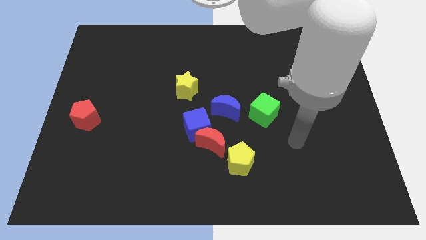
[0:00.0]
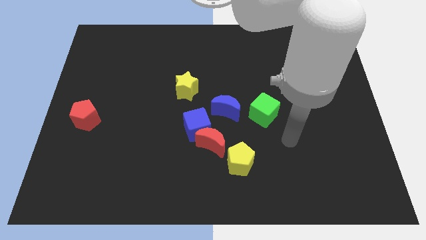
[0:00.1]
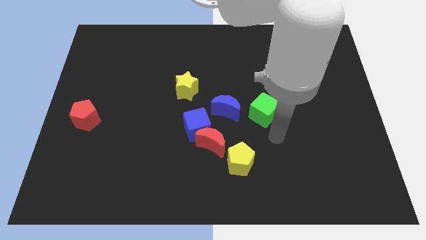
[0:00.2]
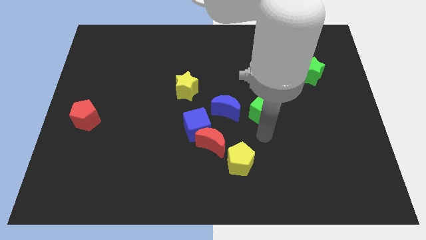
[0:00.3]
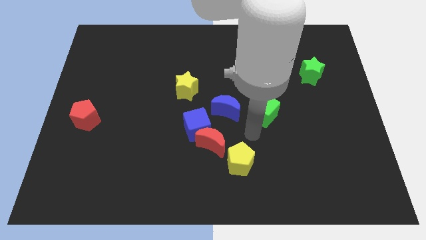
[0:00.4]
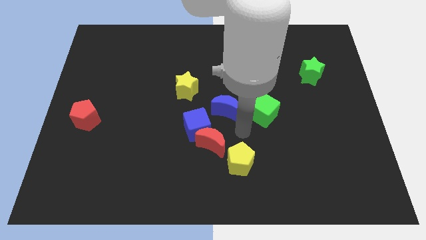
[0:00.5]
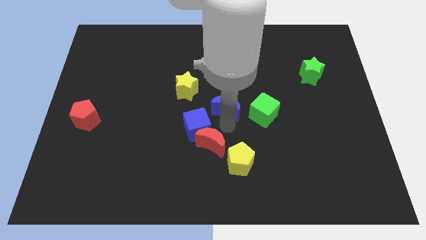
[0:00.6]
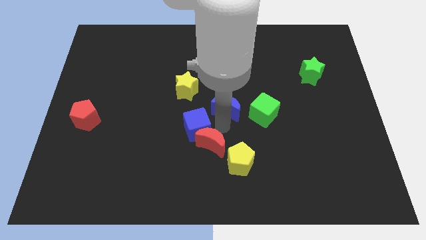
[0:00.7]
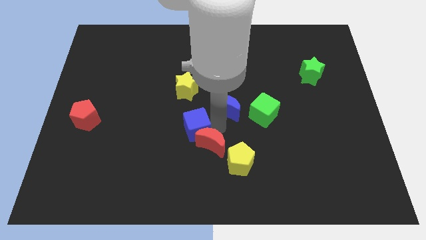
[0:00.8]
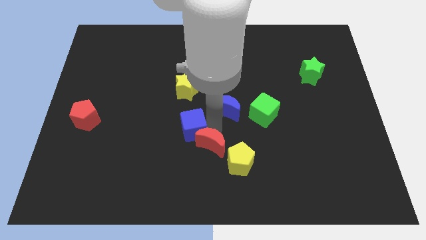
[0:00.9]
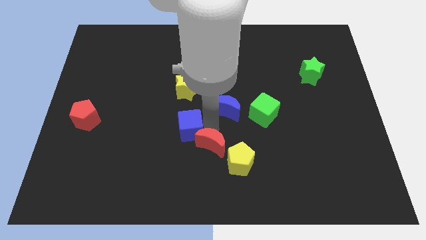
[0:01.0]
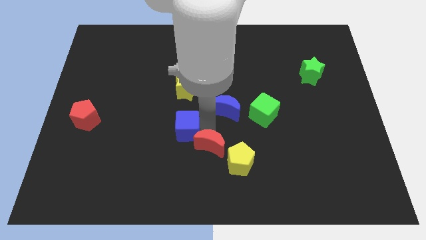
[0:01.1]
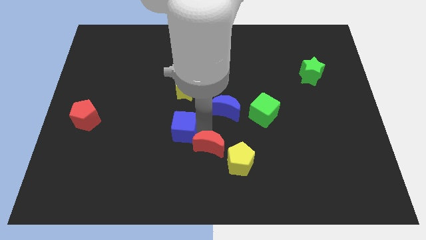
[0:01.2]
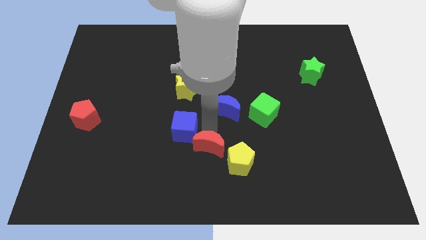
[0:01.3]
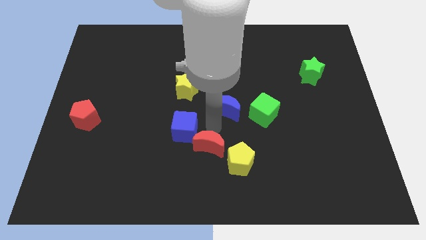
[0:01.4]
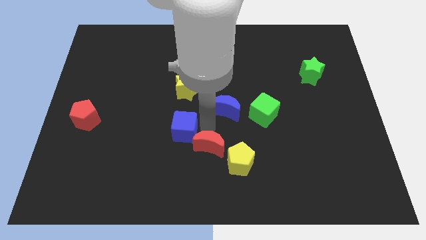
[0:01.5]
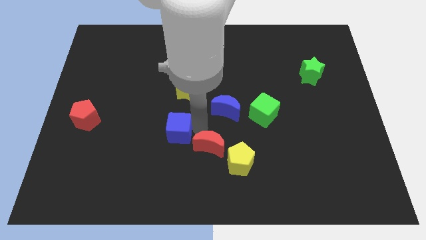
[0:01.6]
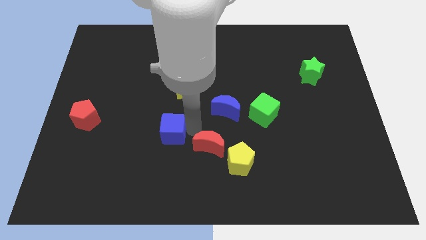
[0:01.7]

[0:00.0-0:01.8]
separate the blue cube from the red moon and blue moon

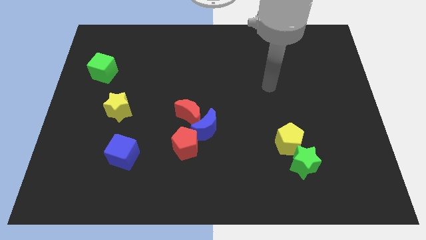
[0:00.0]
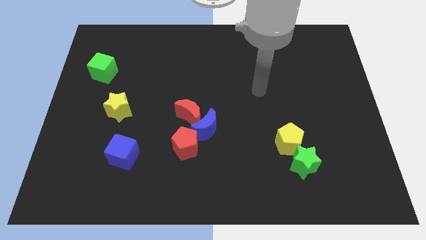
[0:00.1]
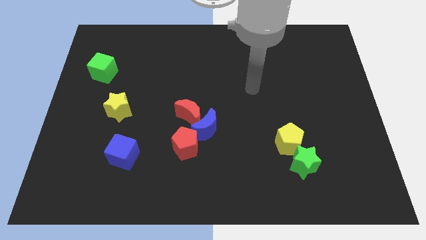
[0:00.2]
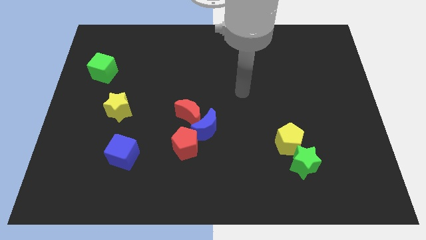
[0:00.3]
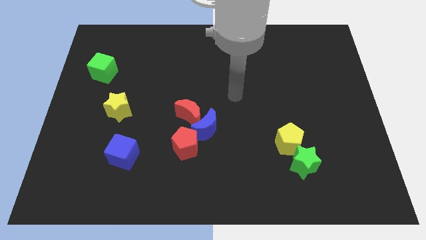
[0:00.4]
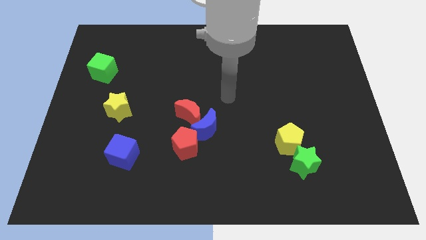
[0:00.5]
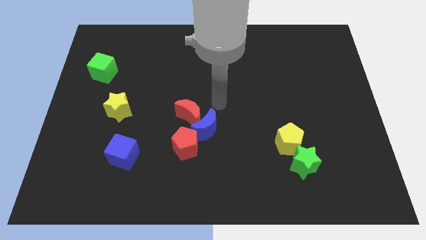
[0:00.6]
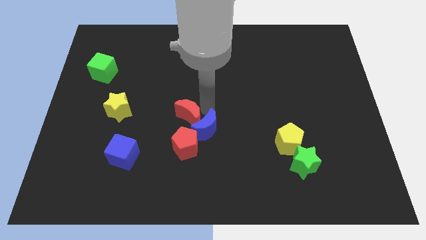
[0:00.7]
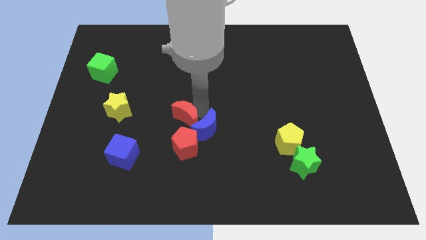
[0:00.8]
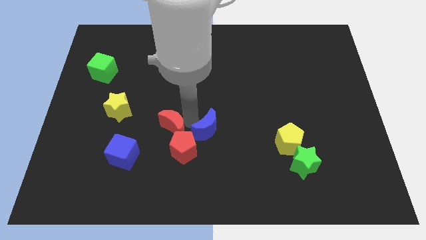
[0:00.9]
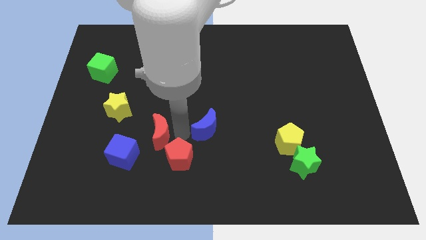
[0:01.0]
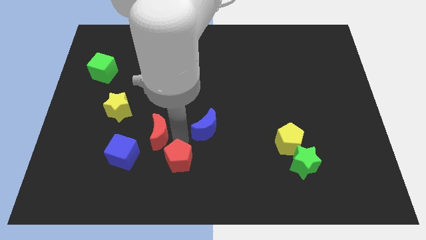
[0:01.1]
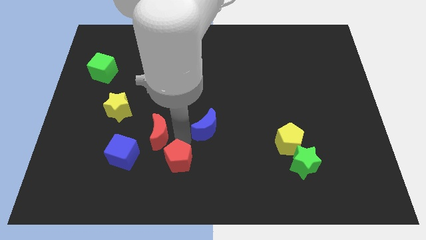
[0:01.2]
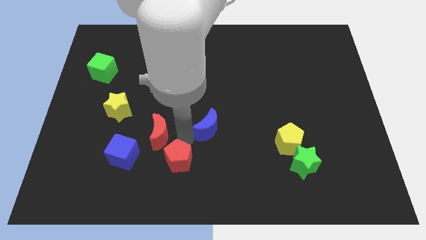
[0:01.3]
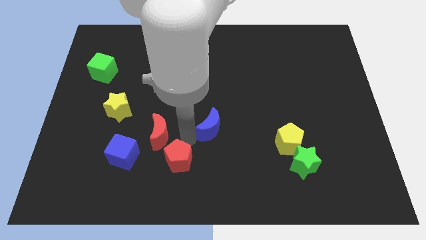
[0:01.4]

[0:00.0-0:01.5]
separate the blue moon from the red moon and red pentagon

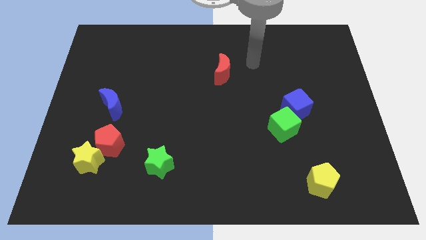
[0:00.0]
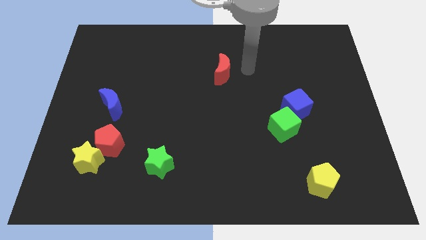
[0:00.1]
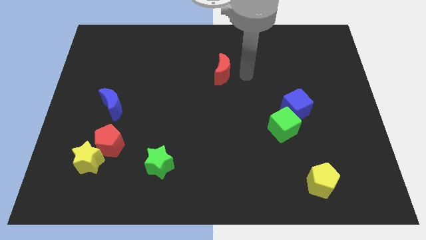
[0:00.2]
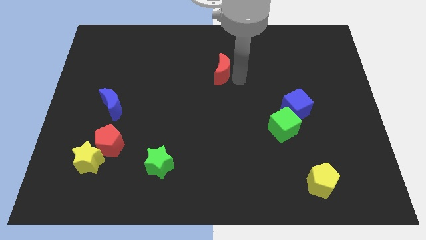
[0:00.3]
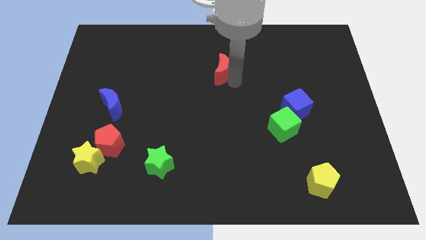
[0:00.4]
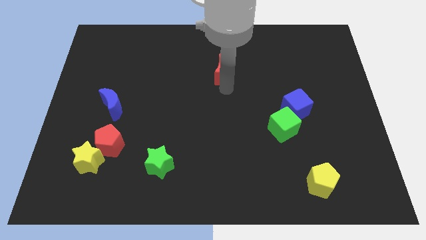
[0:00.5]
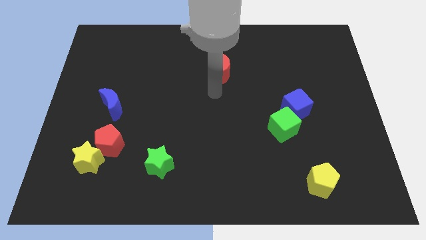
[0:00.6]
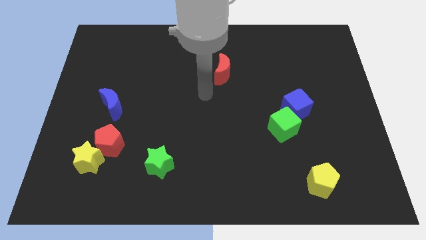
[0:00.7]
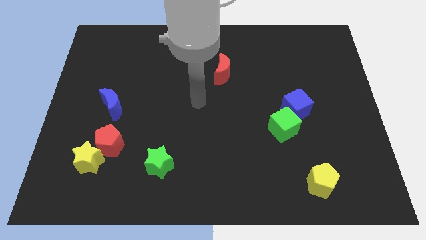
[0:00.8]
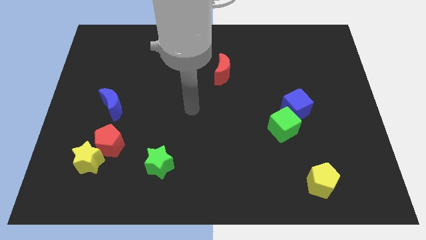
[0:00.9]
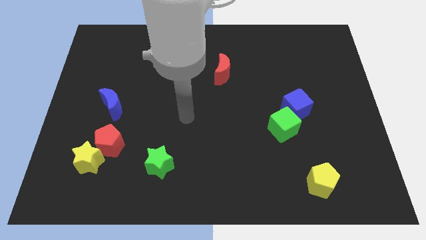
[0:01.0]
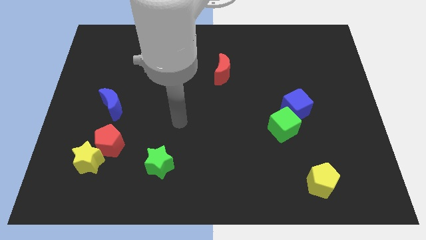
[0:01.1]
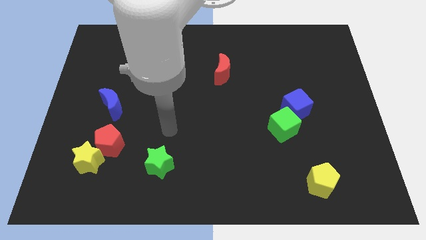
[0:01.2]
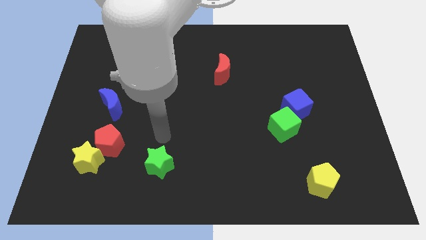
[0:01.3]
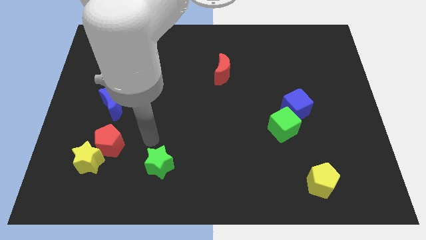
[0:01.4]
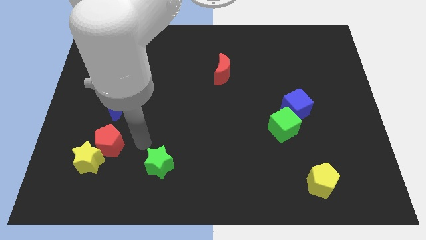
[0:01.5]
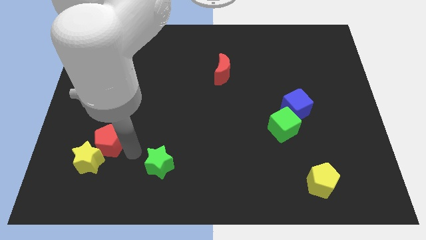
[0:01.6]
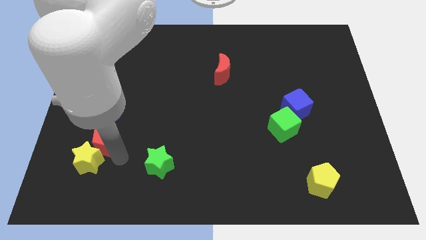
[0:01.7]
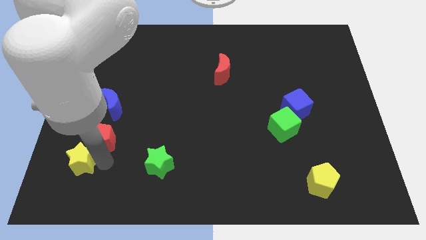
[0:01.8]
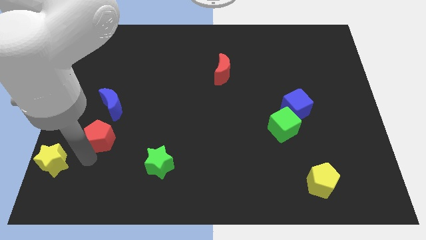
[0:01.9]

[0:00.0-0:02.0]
pull the red pentagon apart from the yellow star

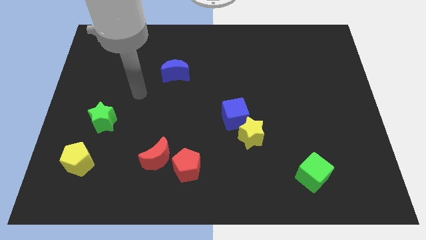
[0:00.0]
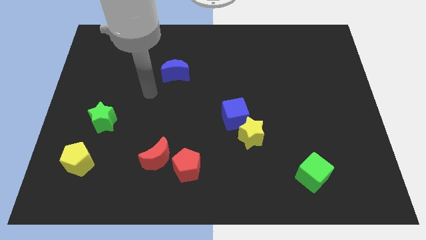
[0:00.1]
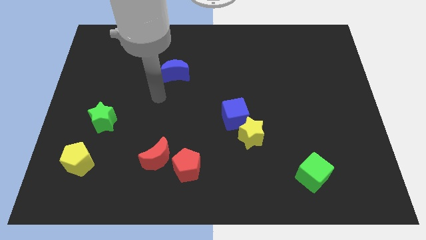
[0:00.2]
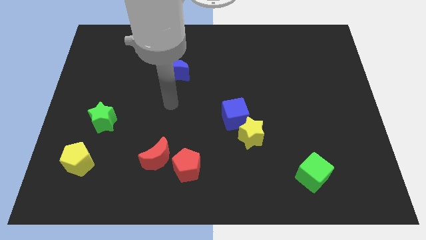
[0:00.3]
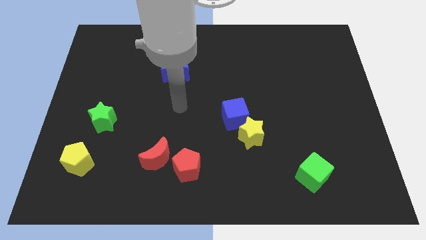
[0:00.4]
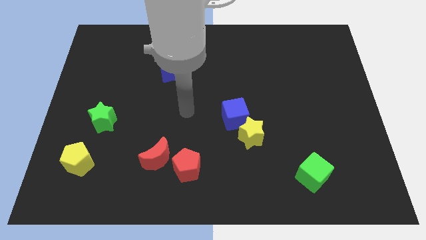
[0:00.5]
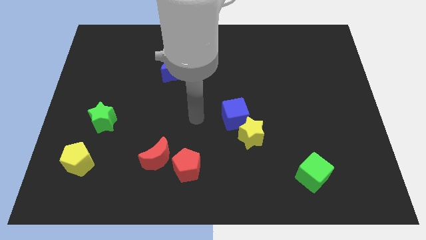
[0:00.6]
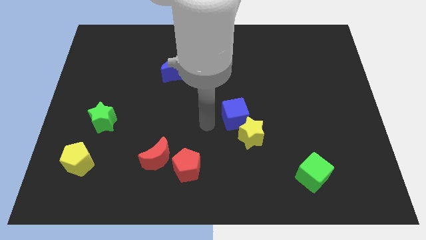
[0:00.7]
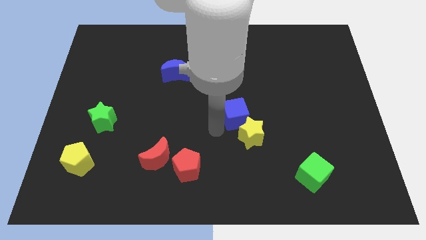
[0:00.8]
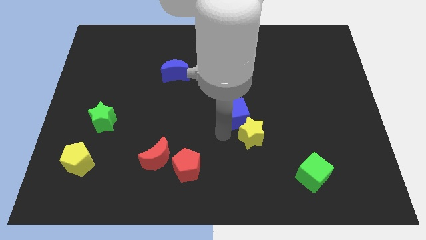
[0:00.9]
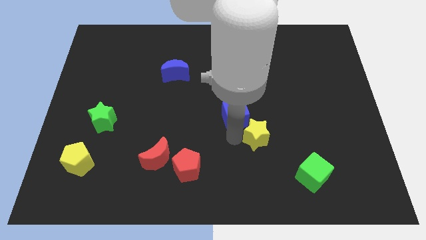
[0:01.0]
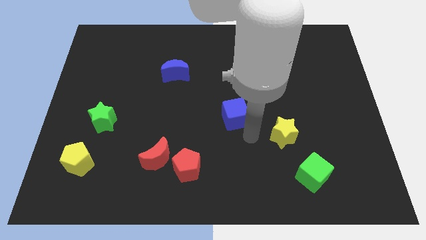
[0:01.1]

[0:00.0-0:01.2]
move the blue cube away from the yellow star

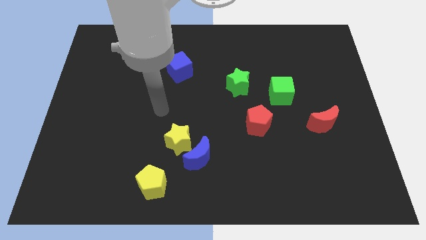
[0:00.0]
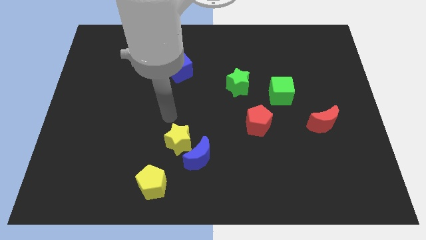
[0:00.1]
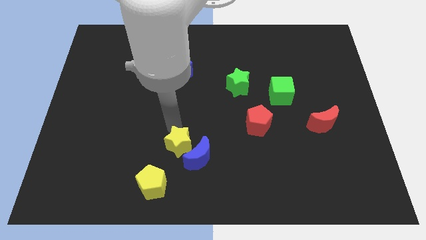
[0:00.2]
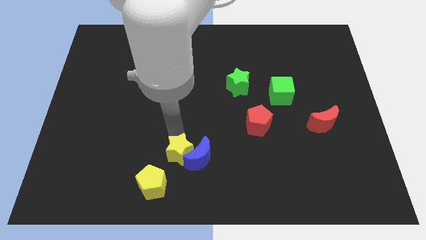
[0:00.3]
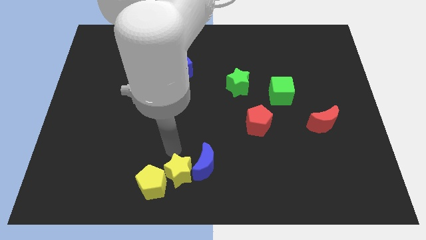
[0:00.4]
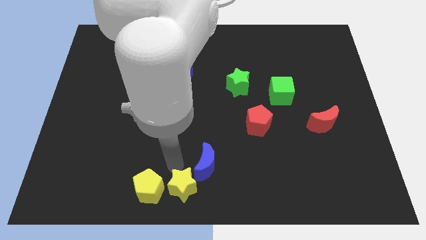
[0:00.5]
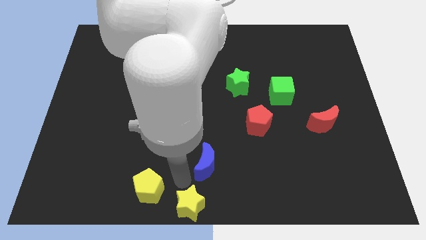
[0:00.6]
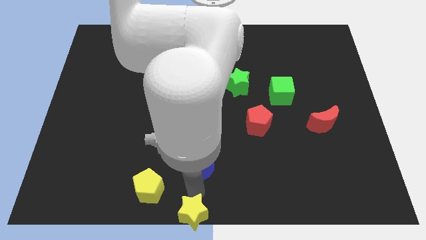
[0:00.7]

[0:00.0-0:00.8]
pull the blue moon apart from the yellow star

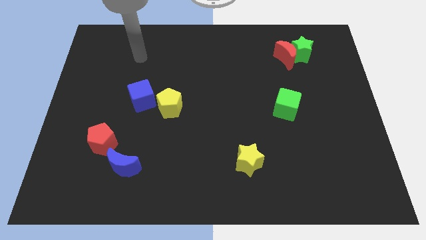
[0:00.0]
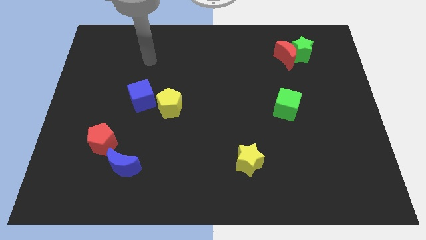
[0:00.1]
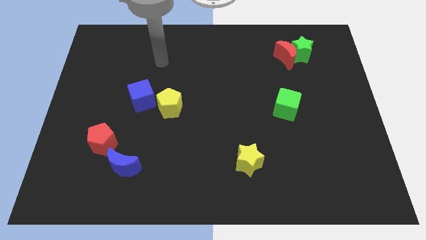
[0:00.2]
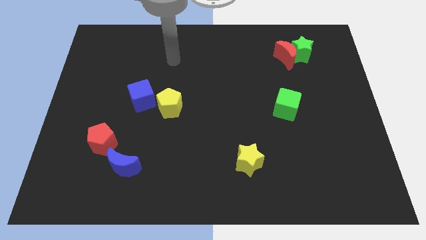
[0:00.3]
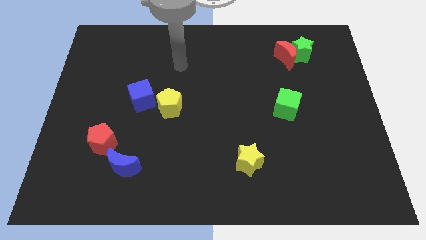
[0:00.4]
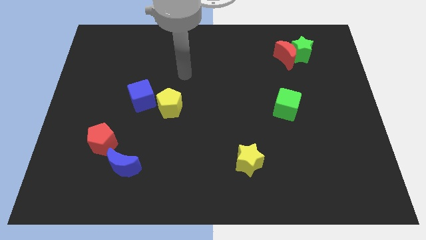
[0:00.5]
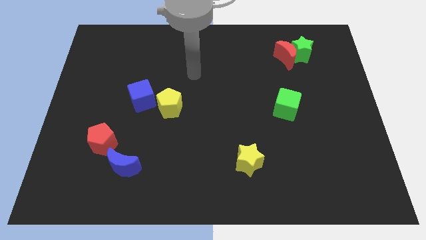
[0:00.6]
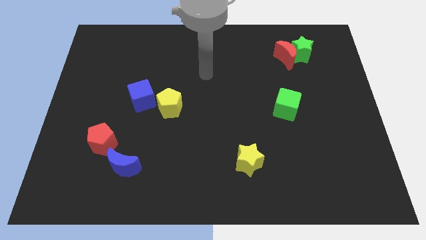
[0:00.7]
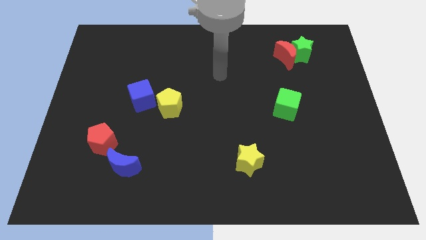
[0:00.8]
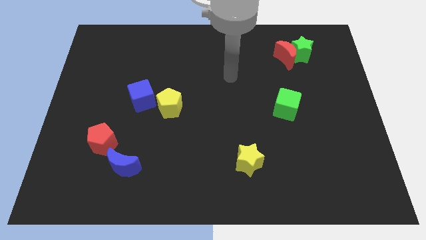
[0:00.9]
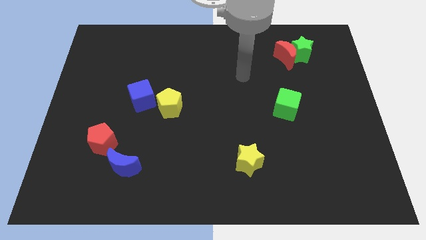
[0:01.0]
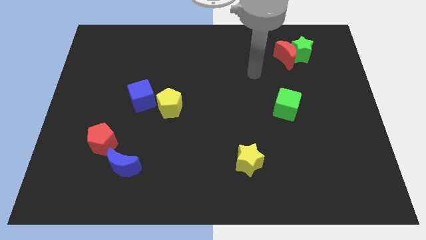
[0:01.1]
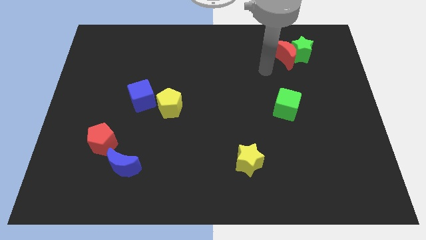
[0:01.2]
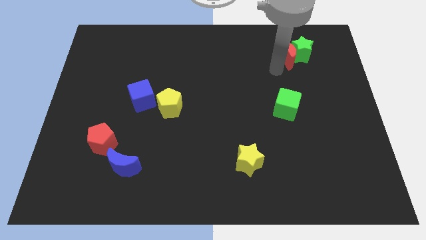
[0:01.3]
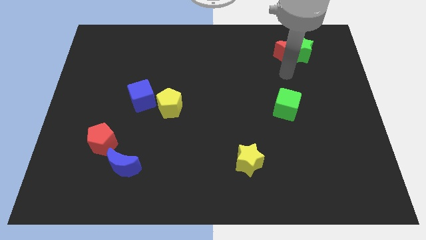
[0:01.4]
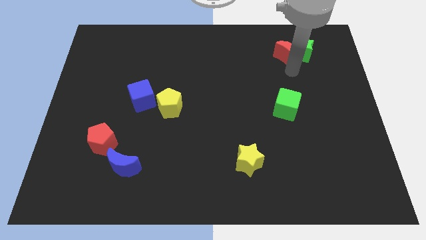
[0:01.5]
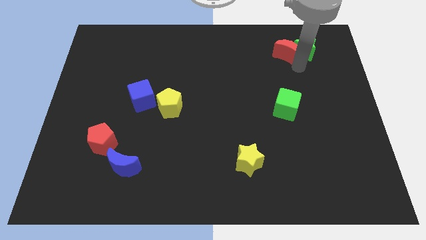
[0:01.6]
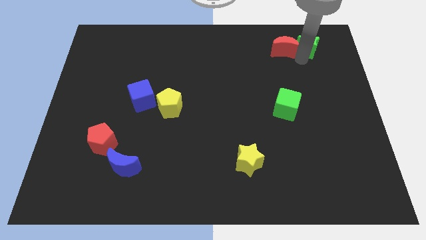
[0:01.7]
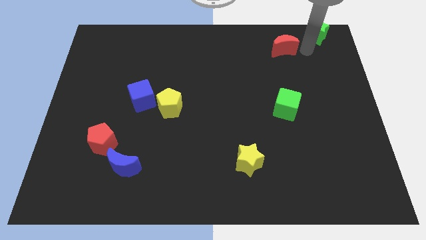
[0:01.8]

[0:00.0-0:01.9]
move the red moon away from the green star

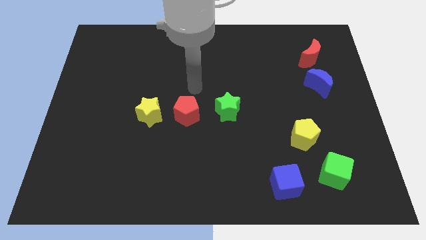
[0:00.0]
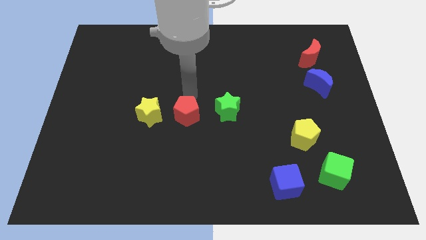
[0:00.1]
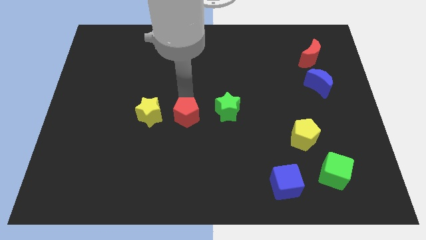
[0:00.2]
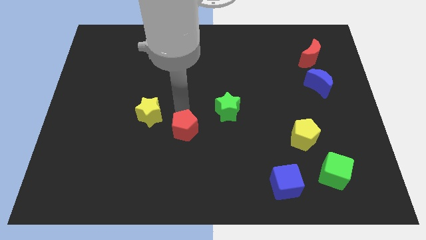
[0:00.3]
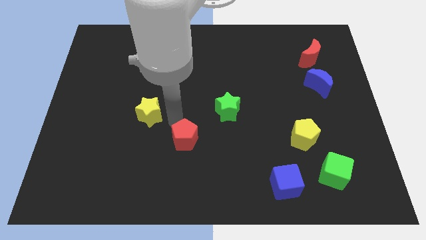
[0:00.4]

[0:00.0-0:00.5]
move the yellow star away from the red pentagon
